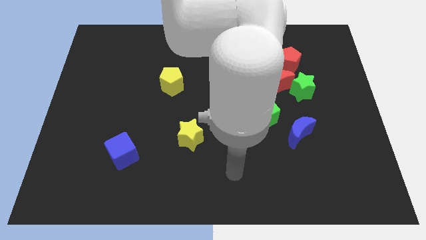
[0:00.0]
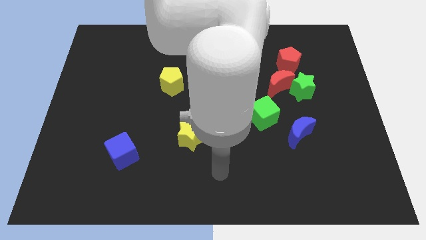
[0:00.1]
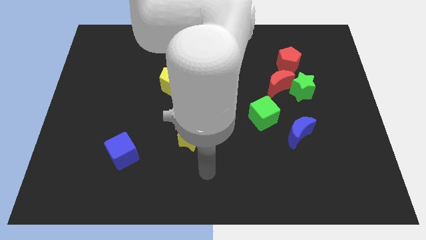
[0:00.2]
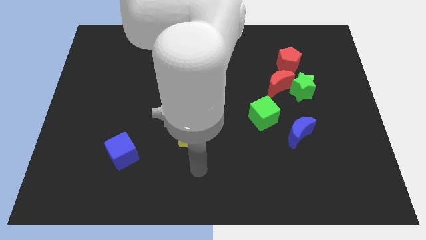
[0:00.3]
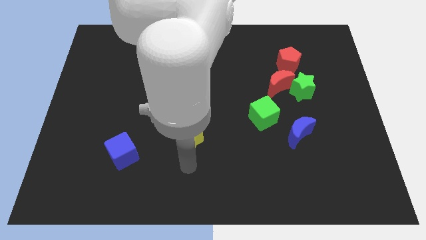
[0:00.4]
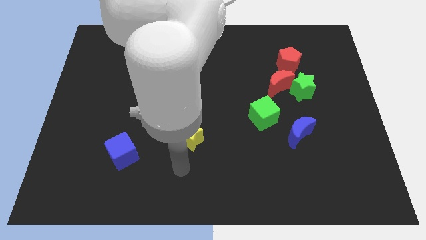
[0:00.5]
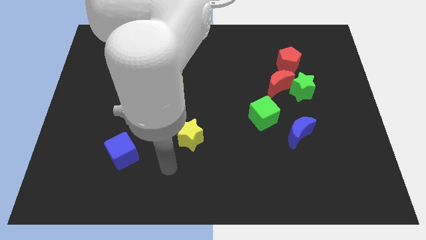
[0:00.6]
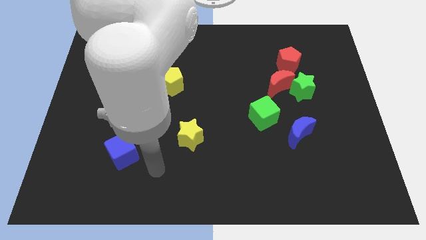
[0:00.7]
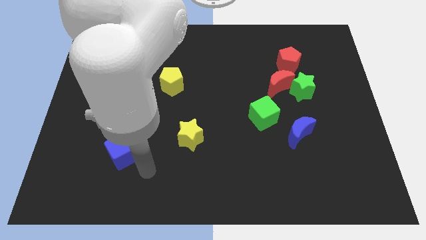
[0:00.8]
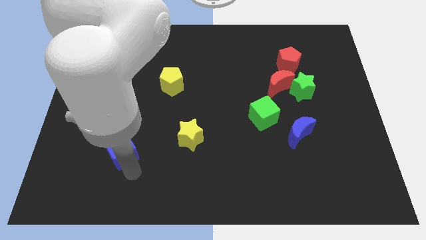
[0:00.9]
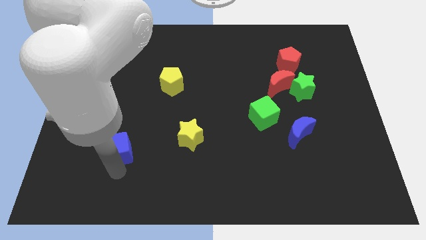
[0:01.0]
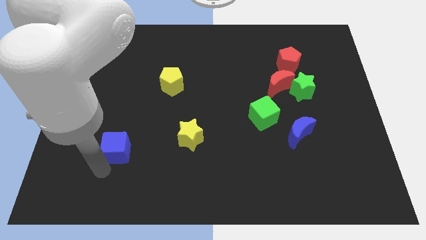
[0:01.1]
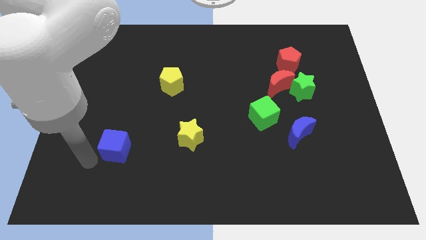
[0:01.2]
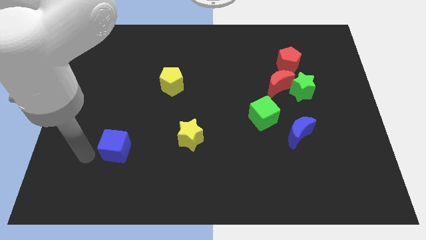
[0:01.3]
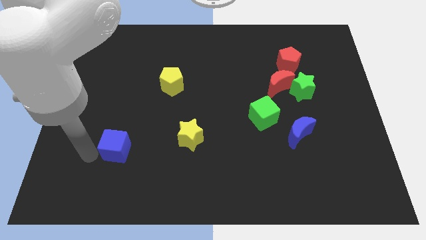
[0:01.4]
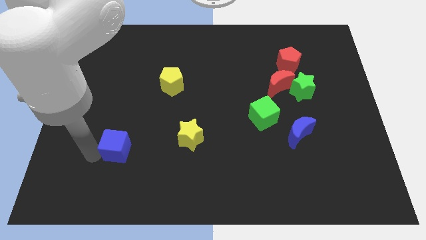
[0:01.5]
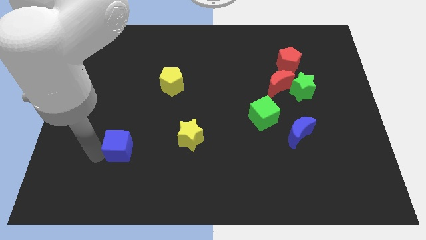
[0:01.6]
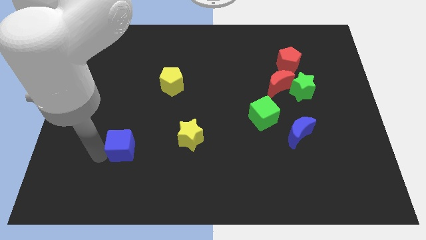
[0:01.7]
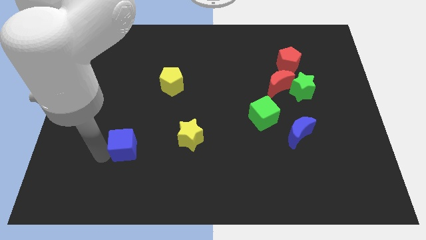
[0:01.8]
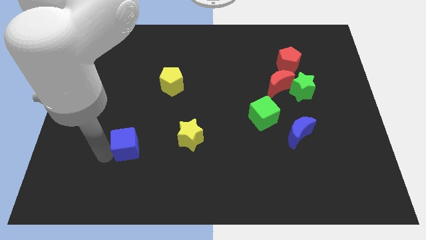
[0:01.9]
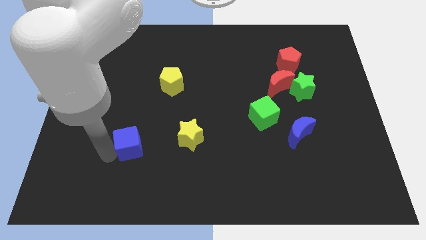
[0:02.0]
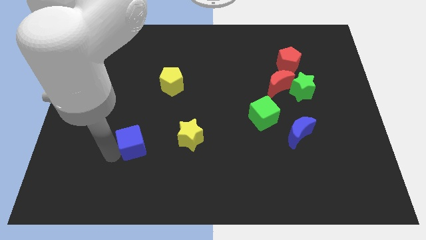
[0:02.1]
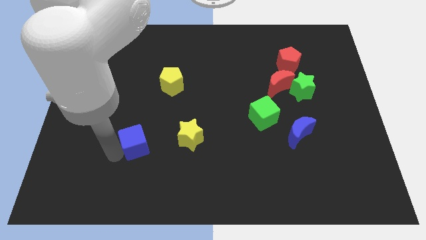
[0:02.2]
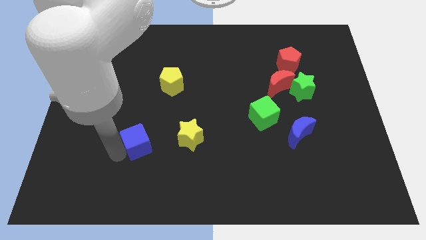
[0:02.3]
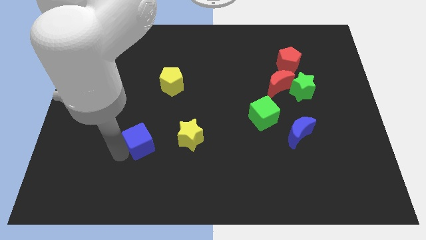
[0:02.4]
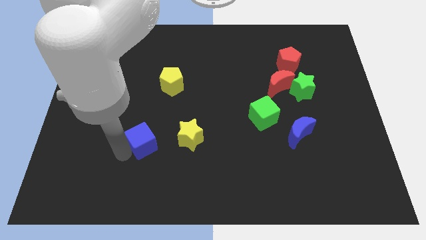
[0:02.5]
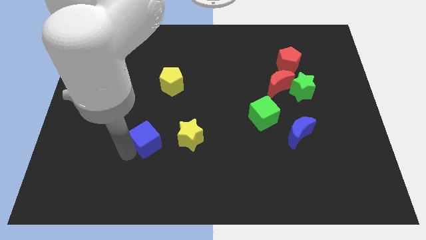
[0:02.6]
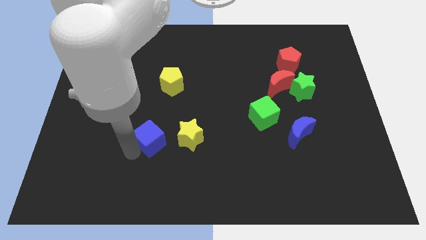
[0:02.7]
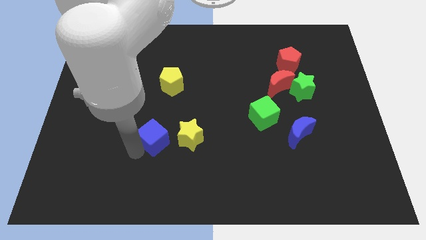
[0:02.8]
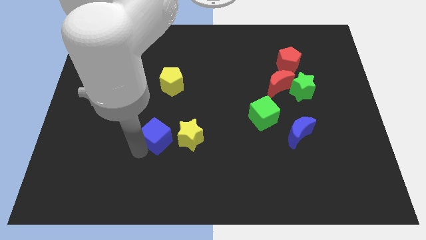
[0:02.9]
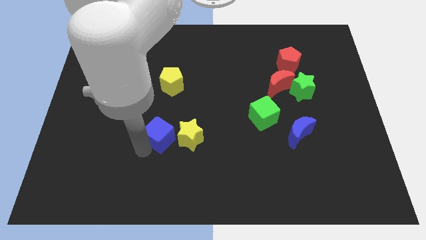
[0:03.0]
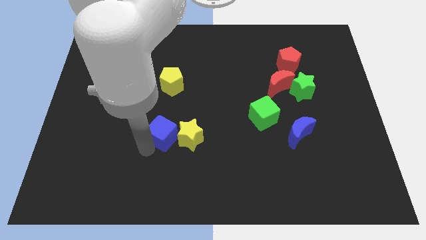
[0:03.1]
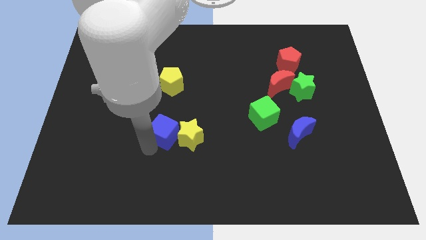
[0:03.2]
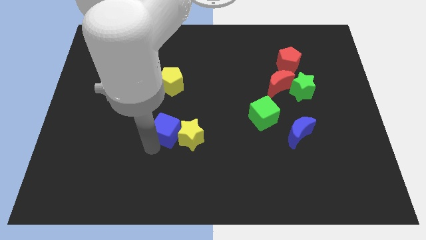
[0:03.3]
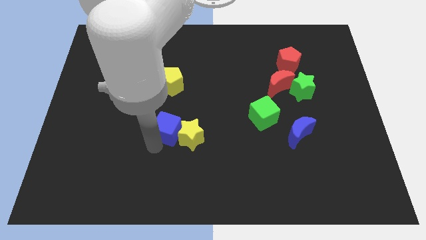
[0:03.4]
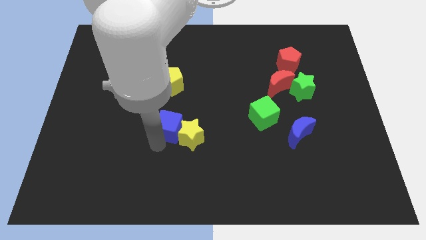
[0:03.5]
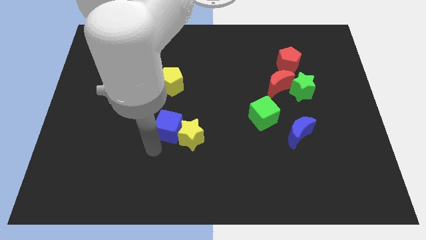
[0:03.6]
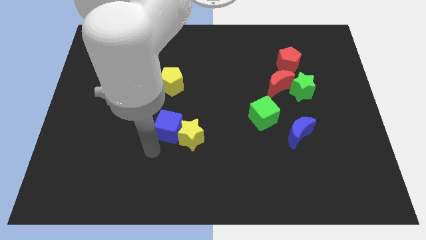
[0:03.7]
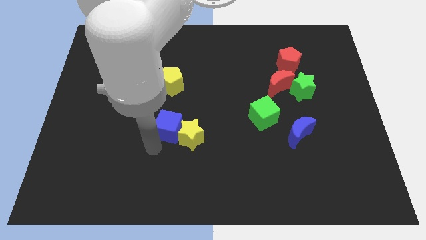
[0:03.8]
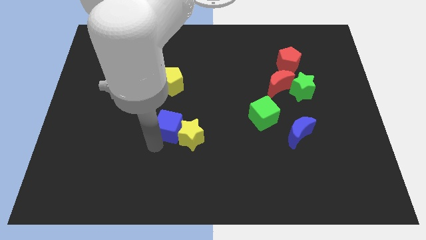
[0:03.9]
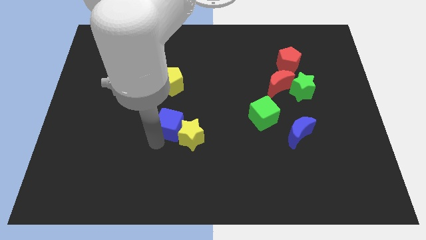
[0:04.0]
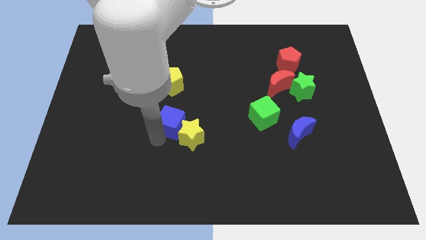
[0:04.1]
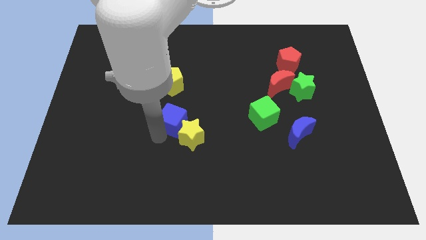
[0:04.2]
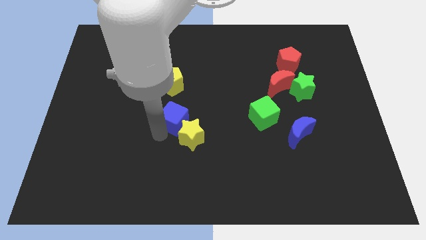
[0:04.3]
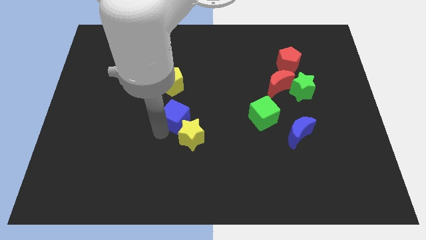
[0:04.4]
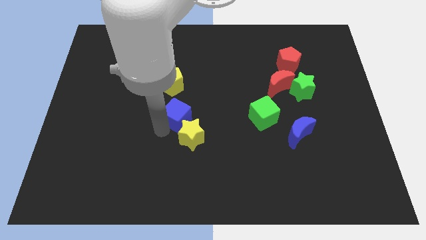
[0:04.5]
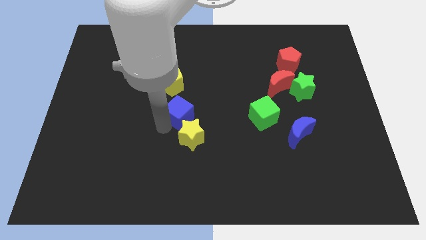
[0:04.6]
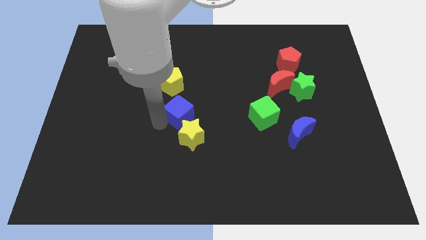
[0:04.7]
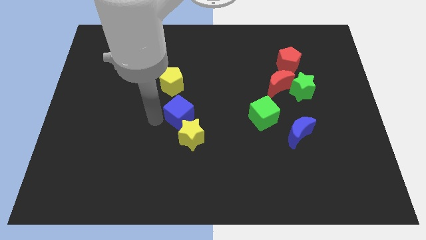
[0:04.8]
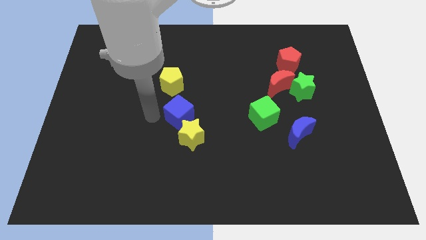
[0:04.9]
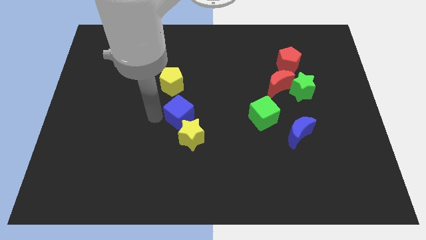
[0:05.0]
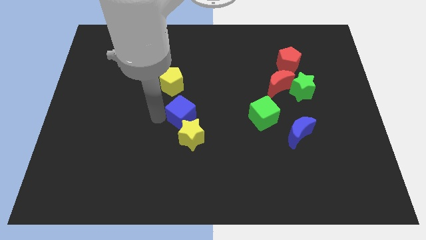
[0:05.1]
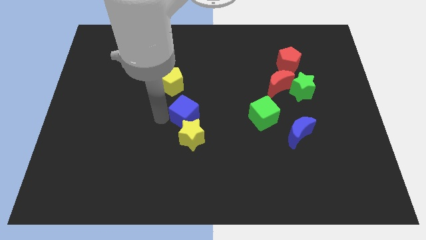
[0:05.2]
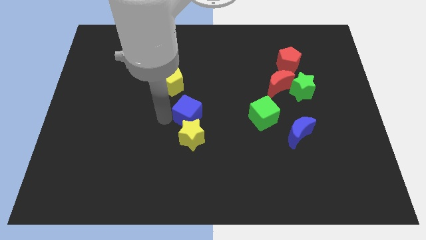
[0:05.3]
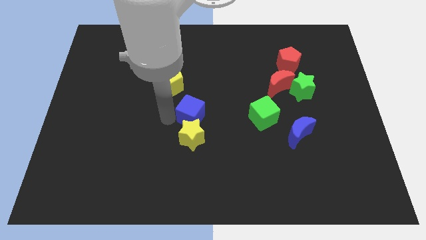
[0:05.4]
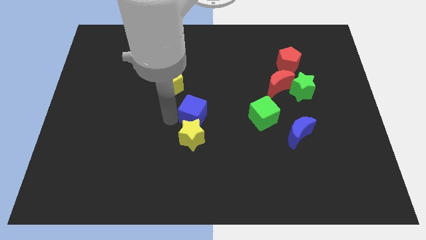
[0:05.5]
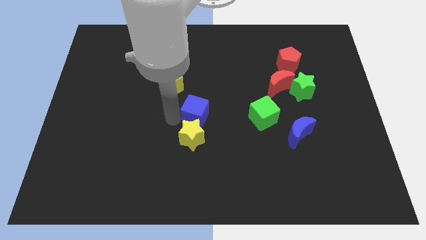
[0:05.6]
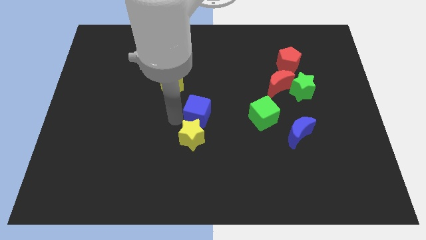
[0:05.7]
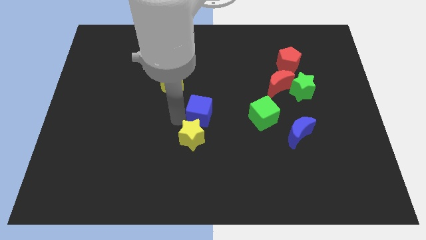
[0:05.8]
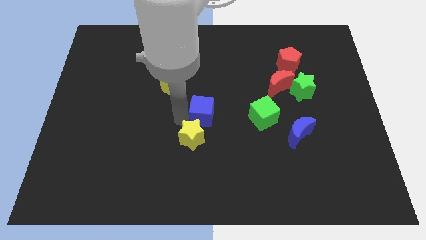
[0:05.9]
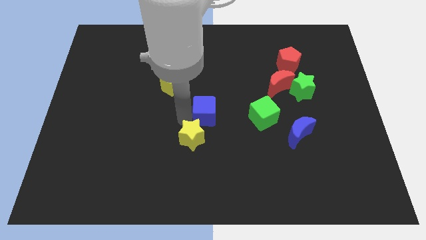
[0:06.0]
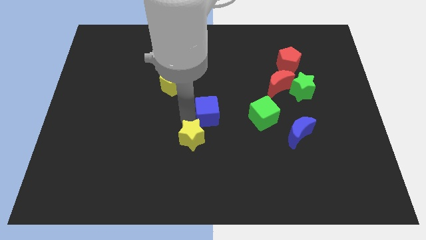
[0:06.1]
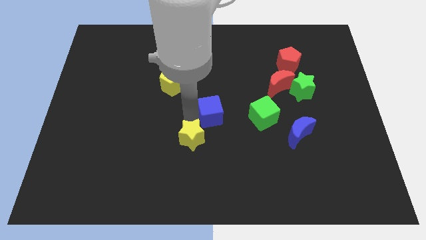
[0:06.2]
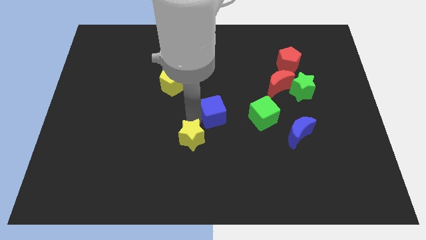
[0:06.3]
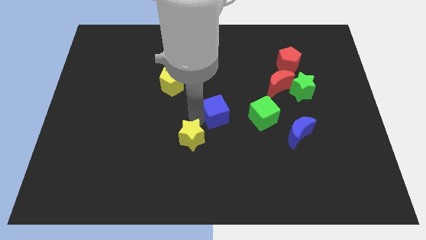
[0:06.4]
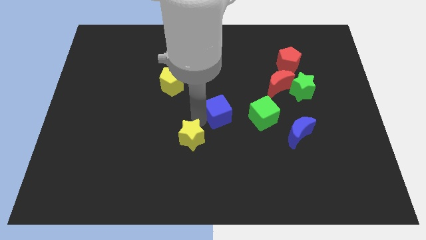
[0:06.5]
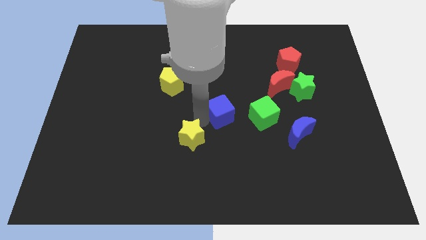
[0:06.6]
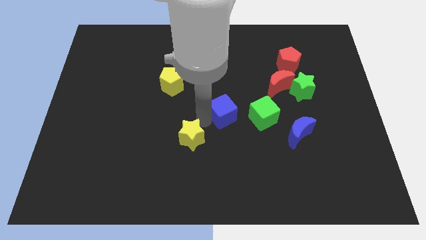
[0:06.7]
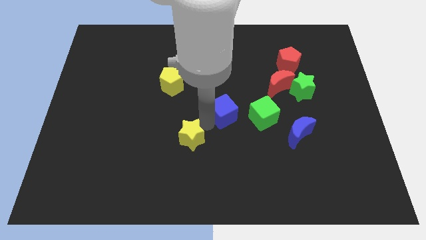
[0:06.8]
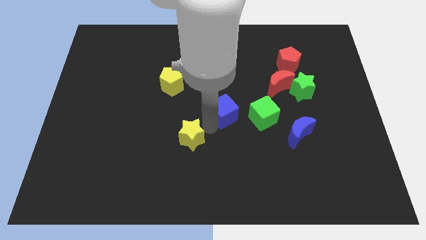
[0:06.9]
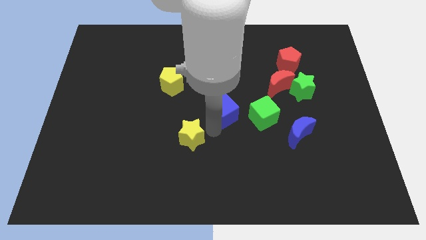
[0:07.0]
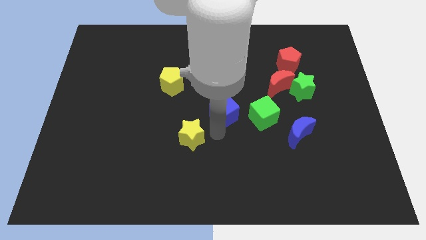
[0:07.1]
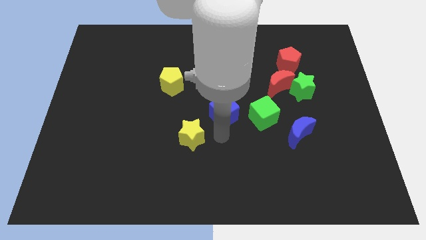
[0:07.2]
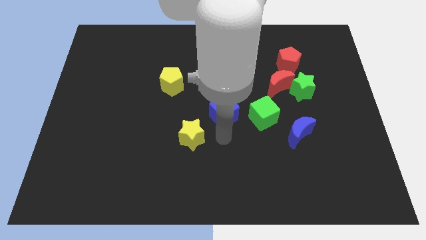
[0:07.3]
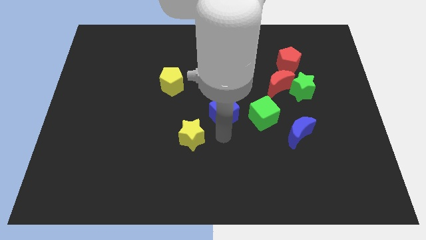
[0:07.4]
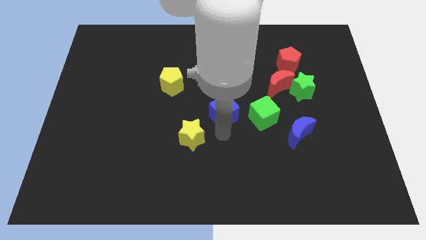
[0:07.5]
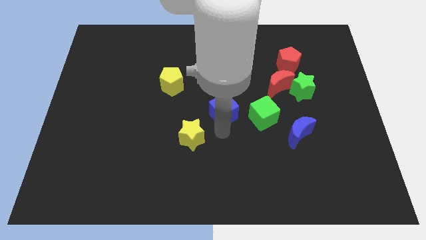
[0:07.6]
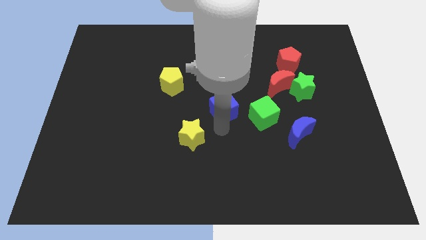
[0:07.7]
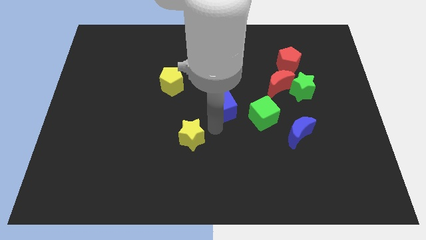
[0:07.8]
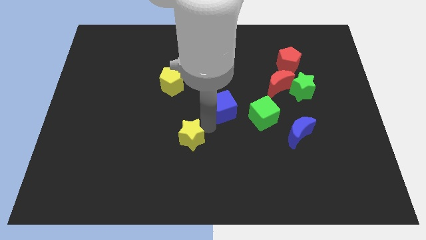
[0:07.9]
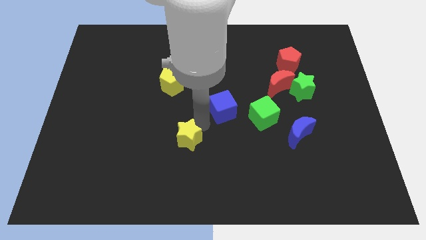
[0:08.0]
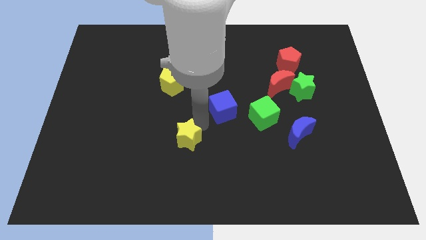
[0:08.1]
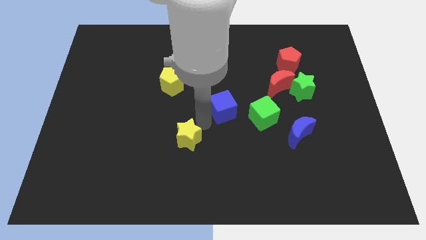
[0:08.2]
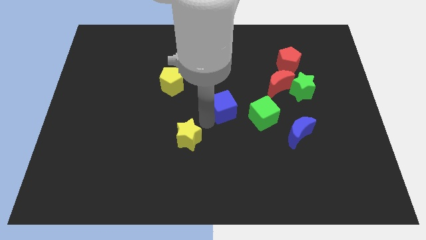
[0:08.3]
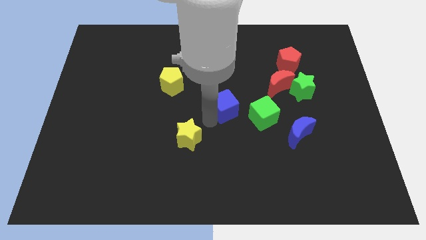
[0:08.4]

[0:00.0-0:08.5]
put the blue cube to the top left side of the green cube
